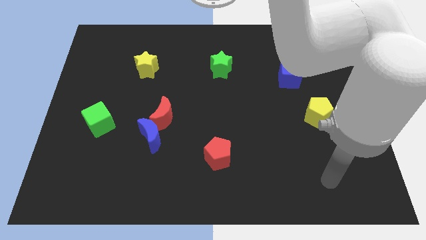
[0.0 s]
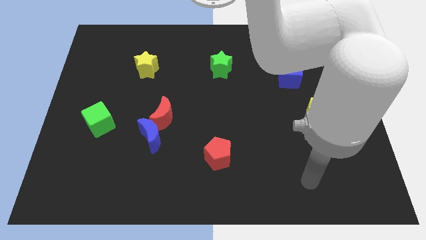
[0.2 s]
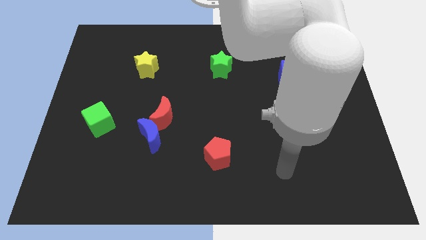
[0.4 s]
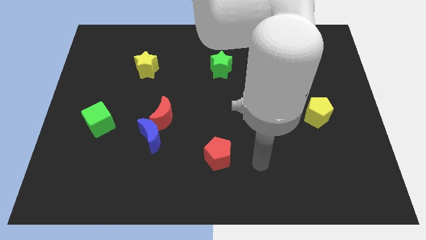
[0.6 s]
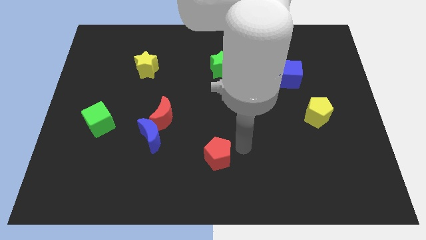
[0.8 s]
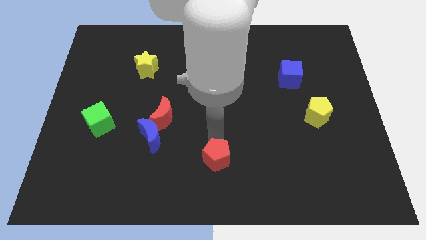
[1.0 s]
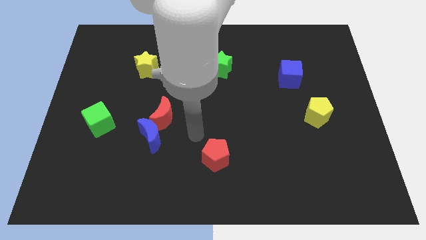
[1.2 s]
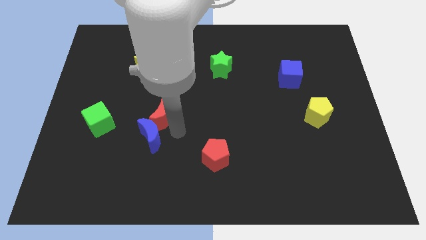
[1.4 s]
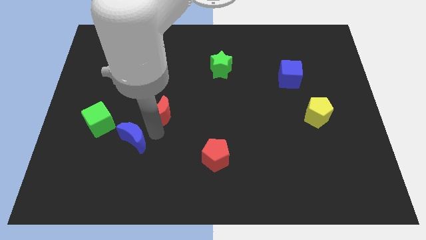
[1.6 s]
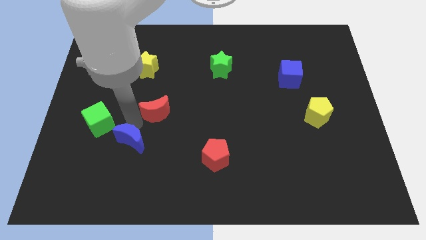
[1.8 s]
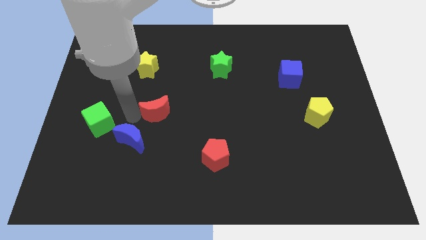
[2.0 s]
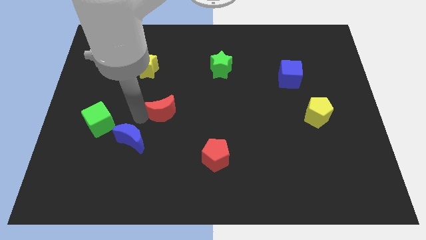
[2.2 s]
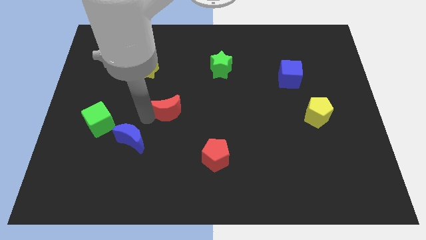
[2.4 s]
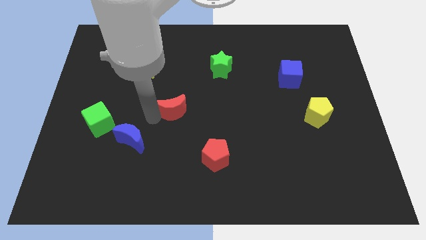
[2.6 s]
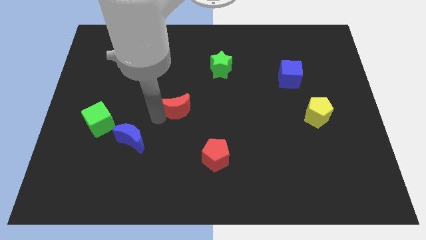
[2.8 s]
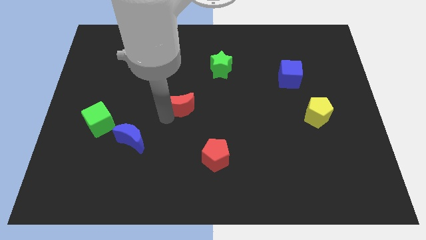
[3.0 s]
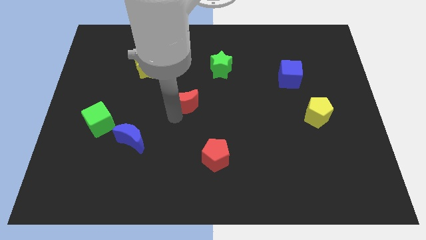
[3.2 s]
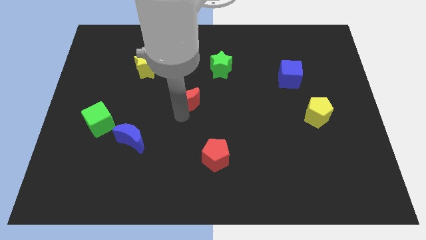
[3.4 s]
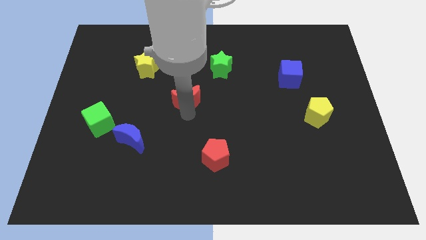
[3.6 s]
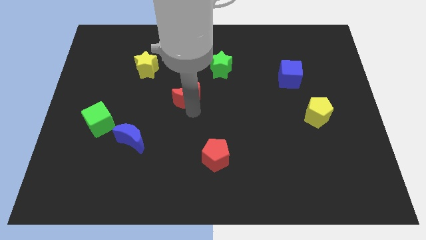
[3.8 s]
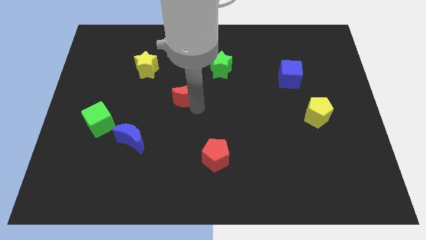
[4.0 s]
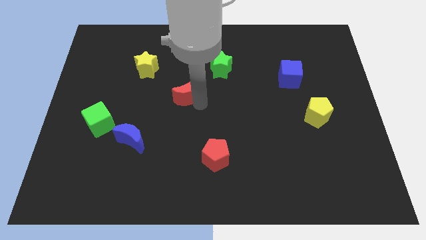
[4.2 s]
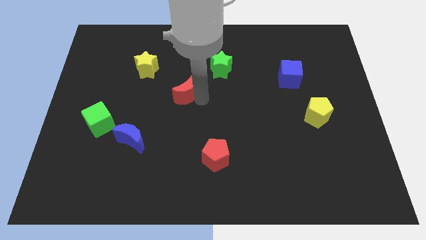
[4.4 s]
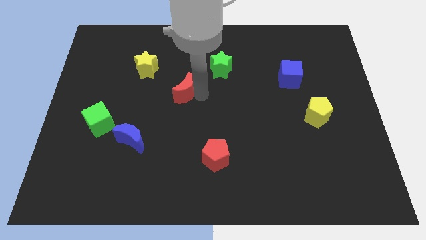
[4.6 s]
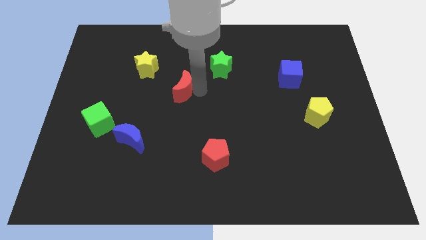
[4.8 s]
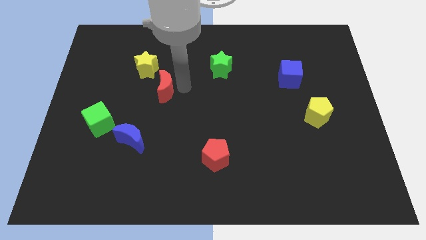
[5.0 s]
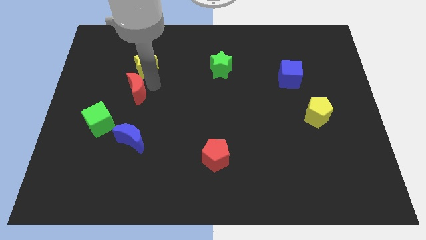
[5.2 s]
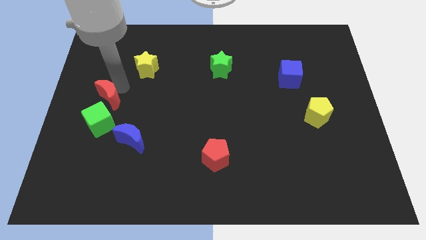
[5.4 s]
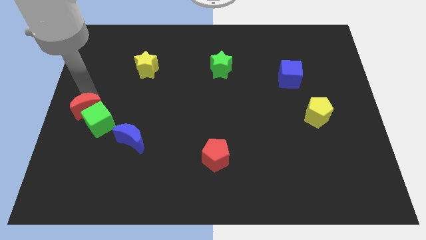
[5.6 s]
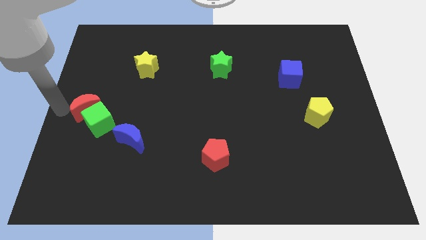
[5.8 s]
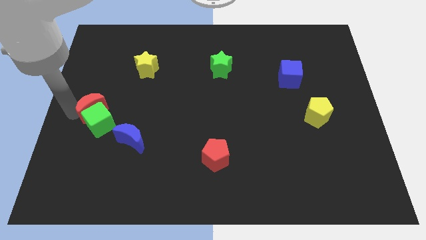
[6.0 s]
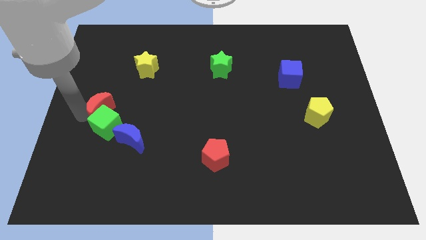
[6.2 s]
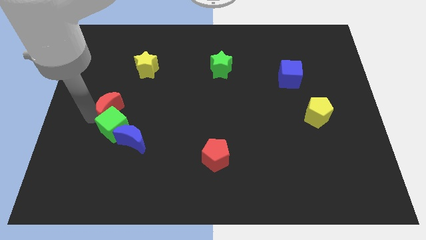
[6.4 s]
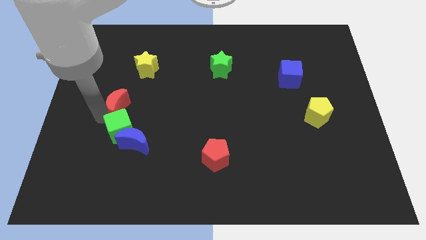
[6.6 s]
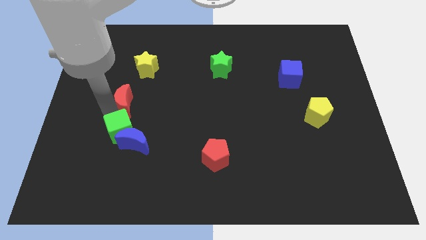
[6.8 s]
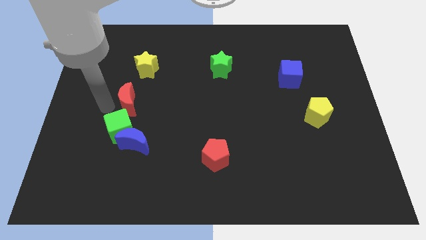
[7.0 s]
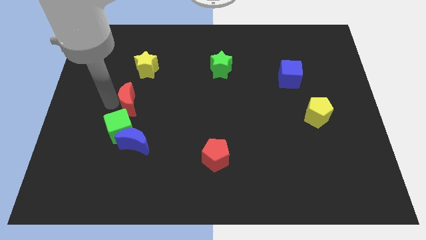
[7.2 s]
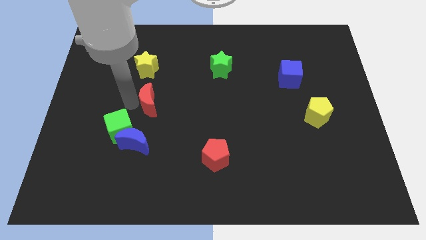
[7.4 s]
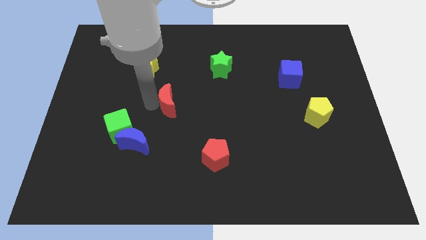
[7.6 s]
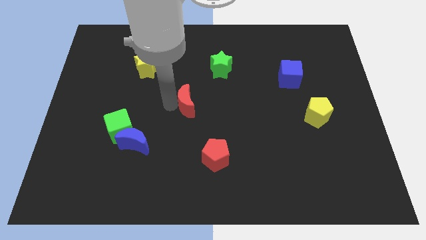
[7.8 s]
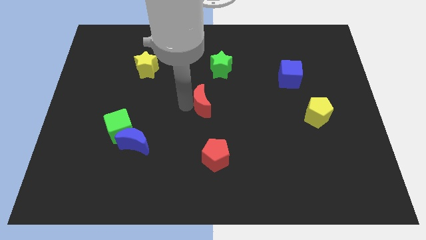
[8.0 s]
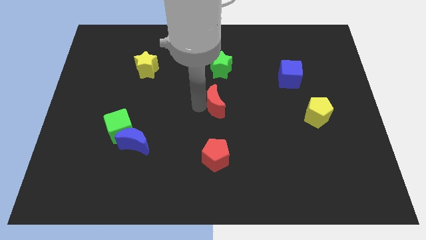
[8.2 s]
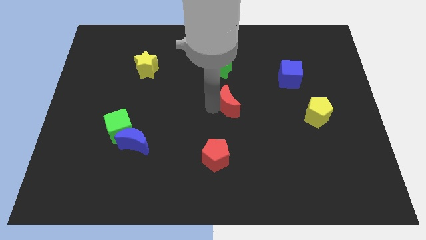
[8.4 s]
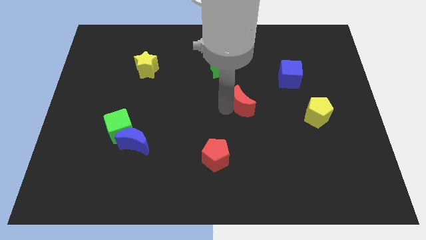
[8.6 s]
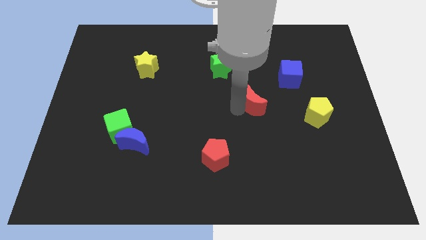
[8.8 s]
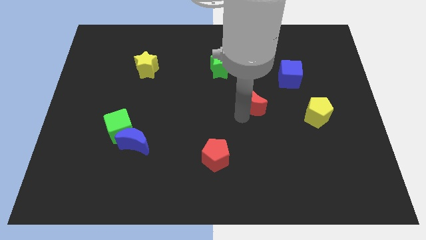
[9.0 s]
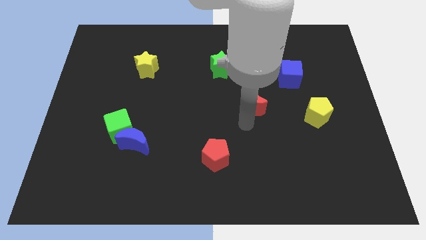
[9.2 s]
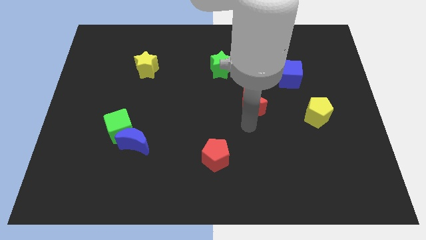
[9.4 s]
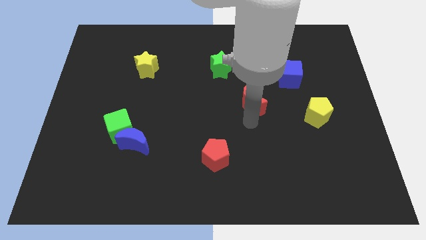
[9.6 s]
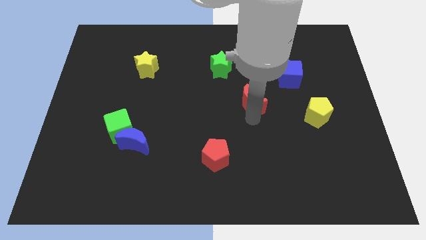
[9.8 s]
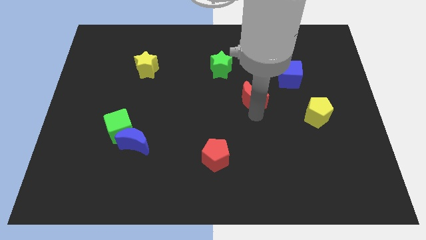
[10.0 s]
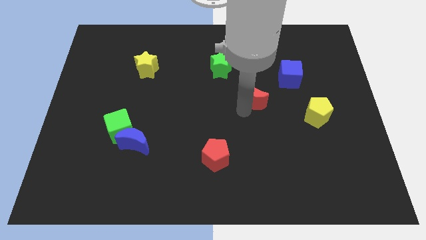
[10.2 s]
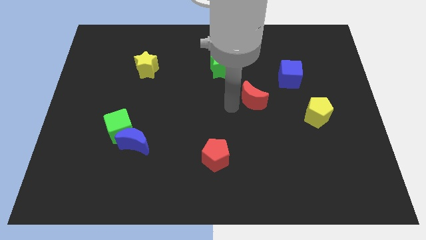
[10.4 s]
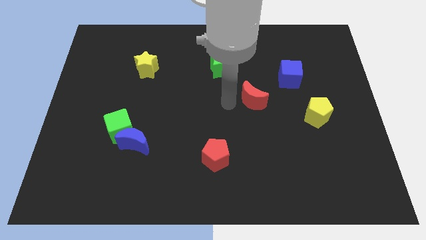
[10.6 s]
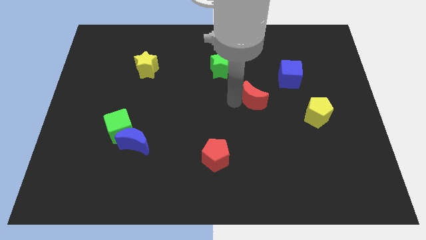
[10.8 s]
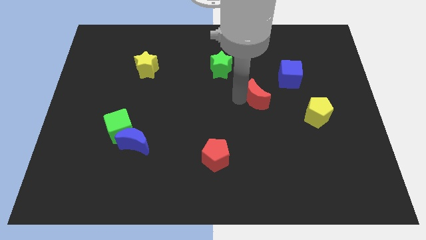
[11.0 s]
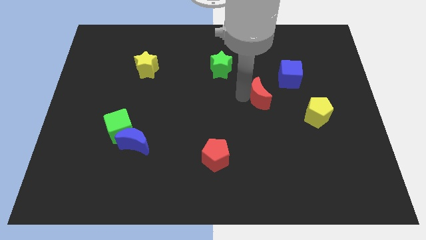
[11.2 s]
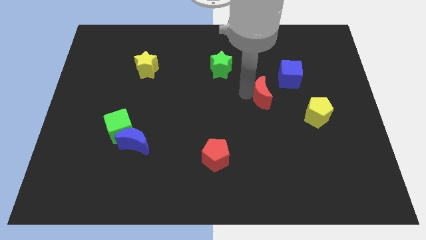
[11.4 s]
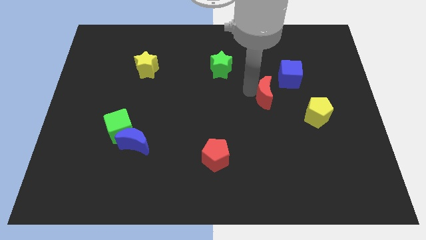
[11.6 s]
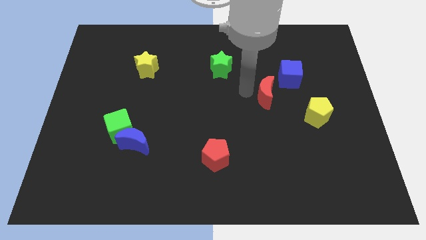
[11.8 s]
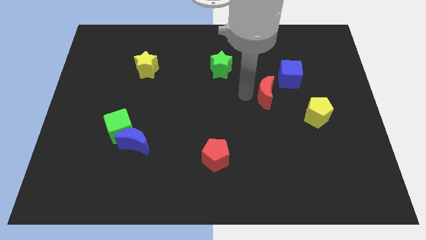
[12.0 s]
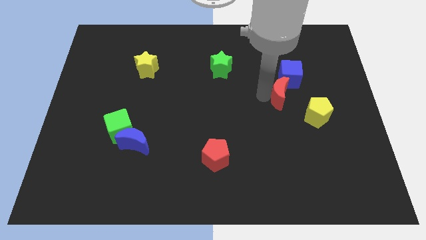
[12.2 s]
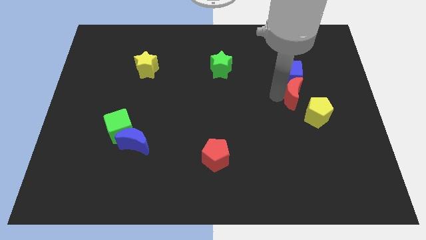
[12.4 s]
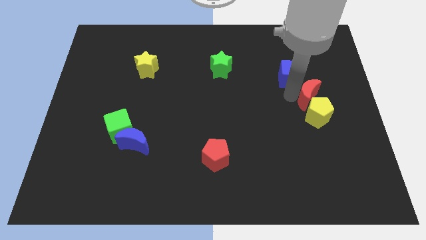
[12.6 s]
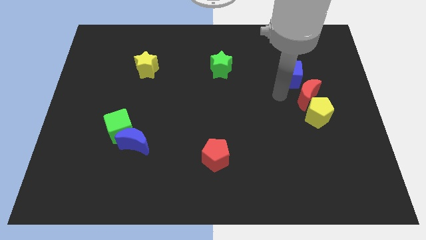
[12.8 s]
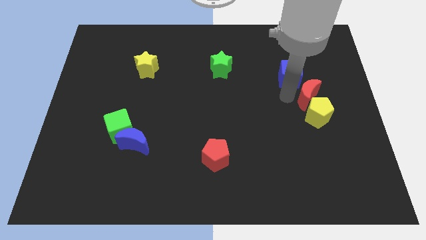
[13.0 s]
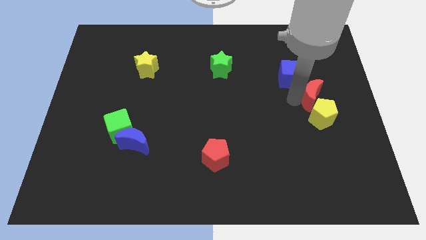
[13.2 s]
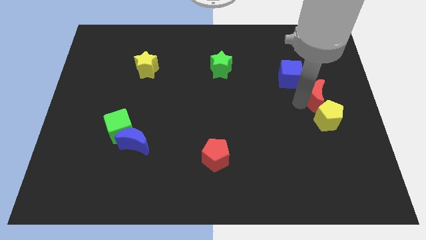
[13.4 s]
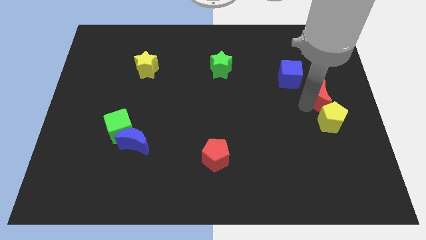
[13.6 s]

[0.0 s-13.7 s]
move the red moon to the center right
